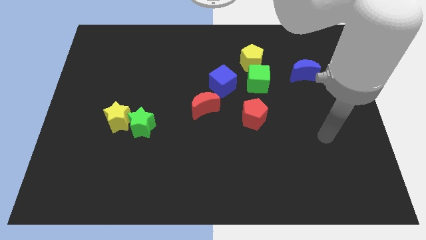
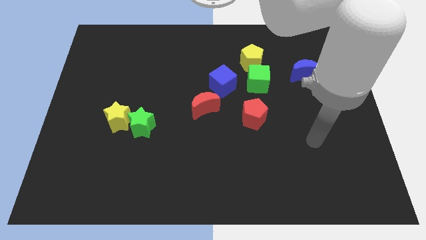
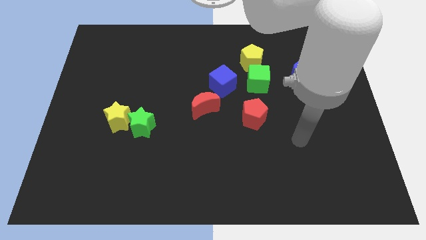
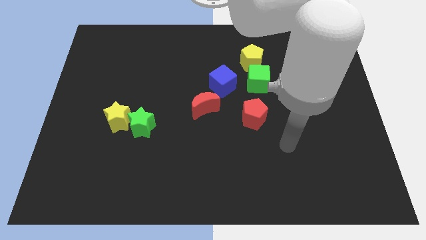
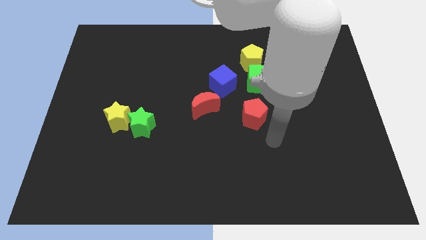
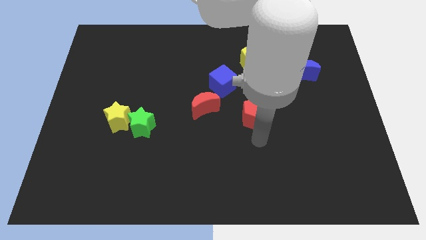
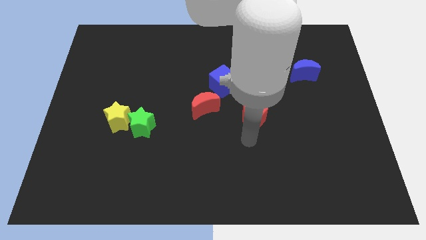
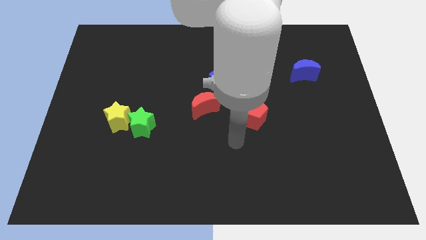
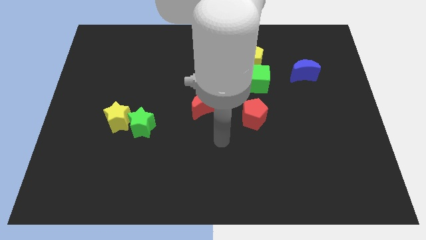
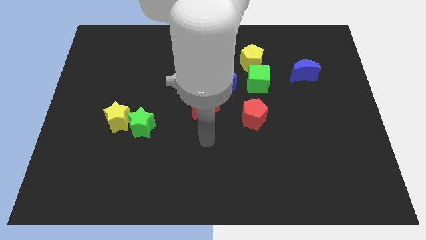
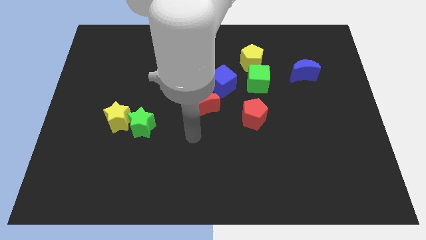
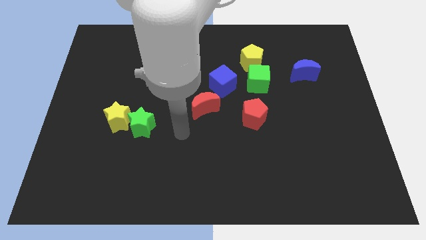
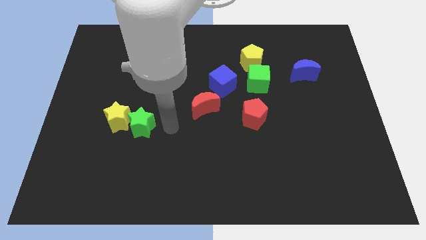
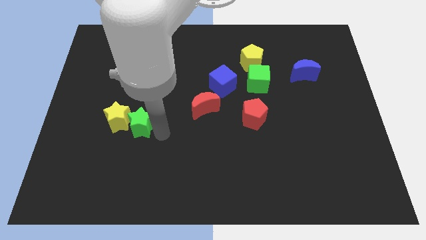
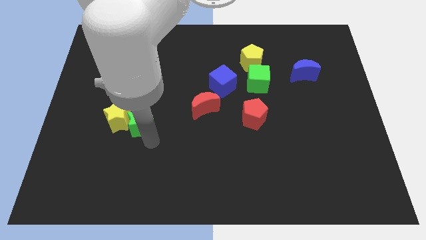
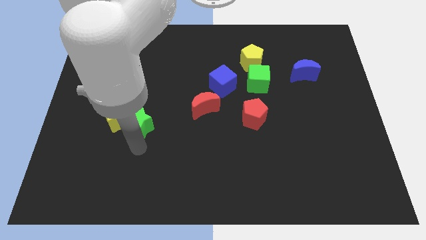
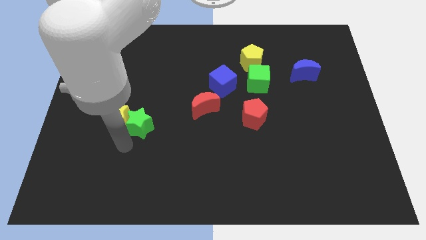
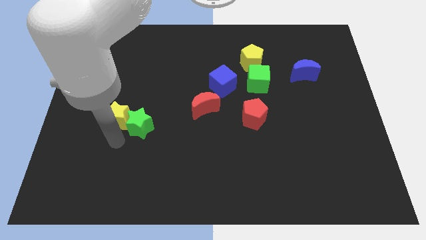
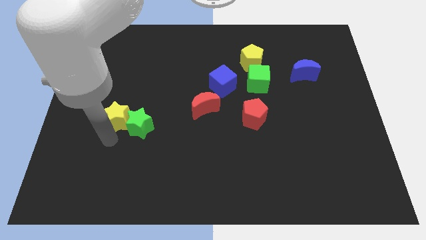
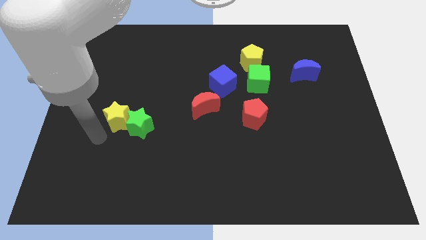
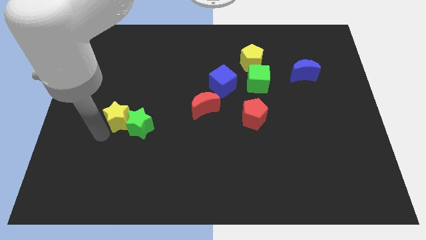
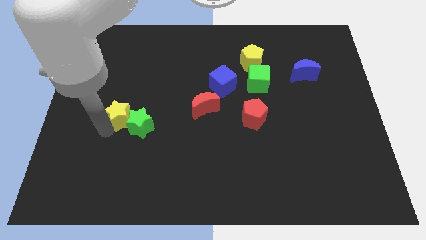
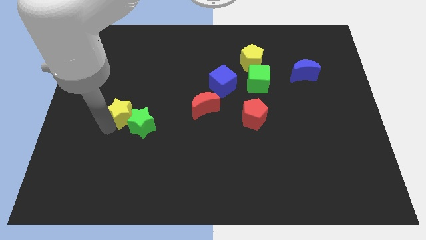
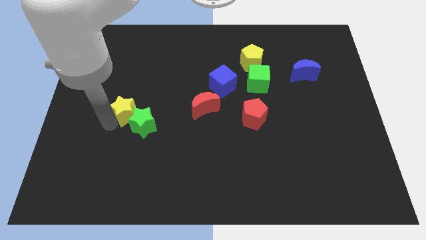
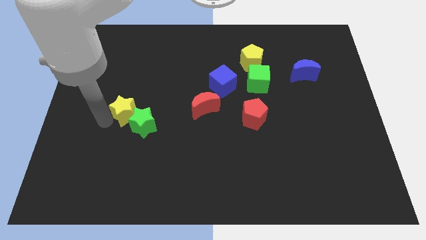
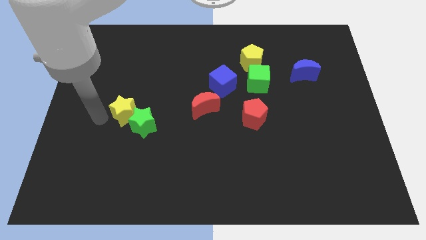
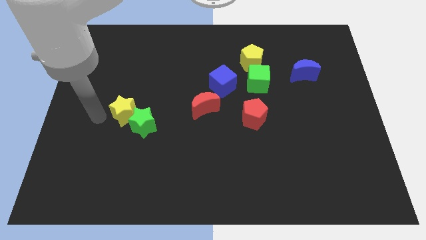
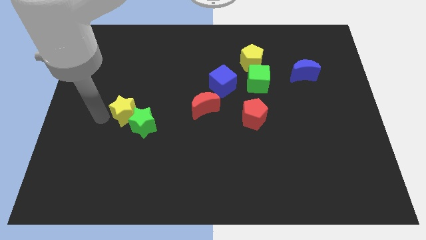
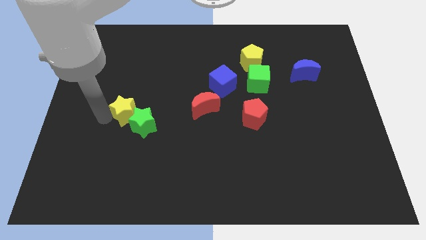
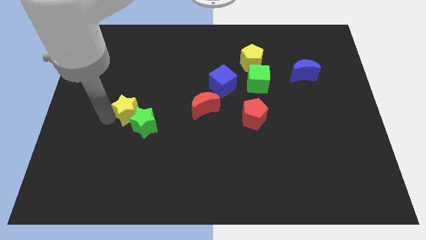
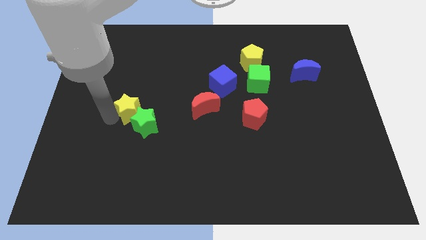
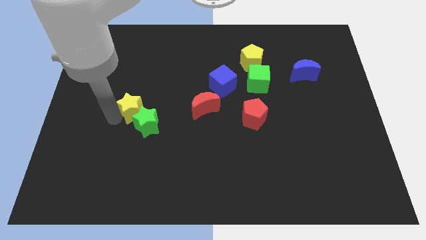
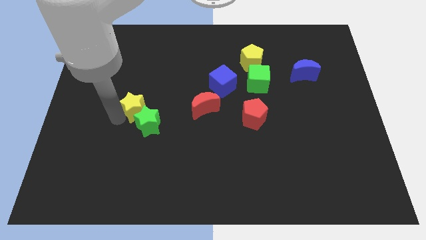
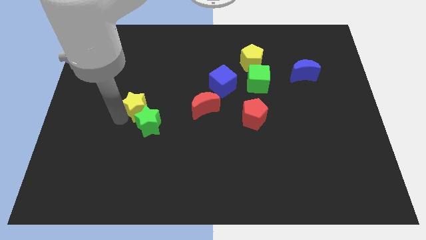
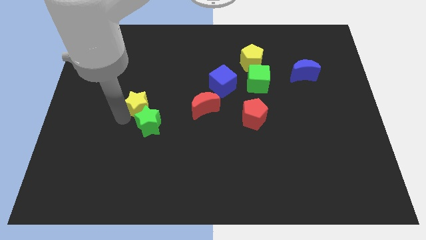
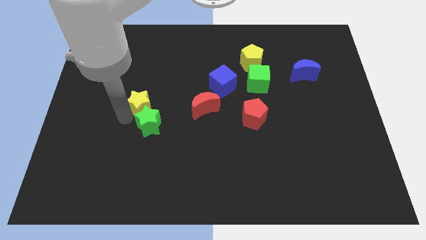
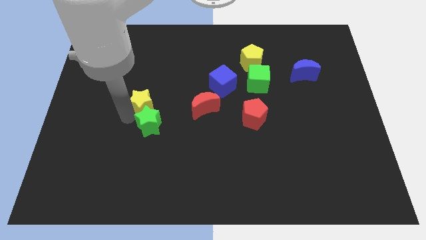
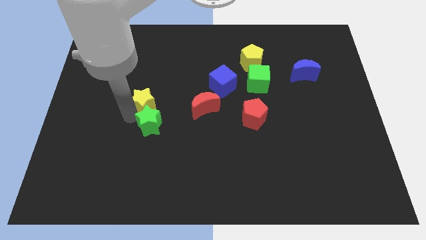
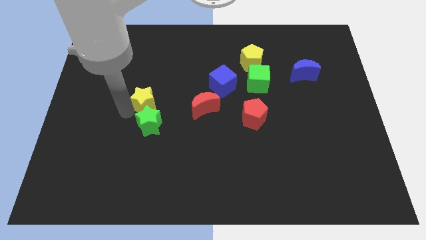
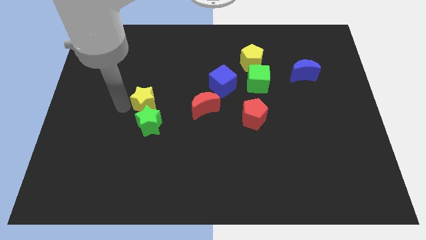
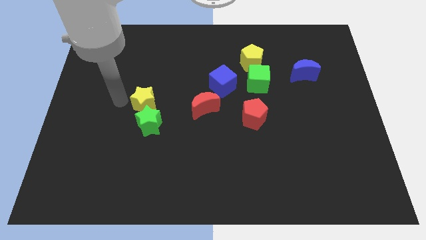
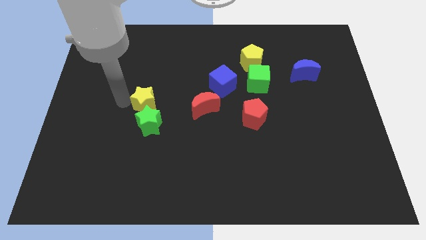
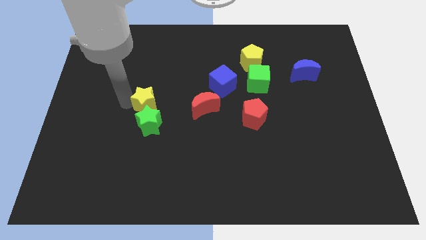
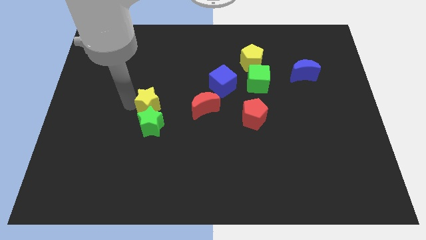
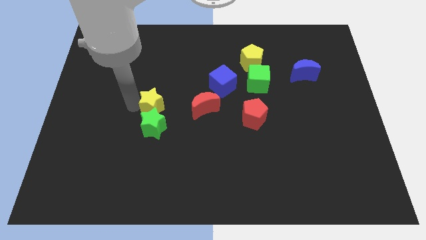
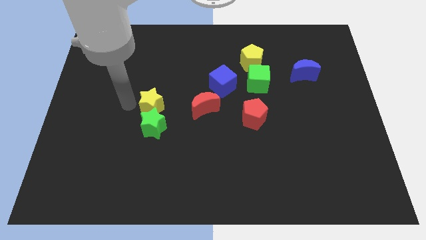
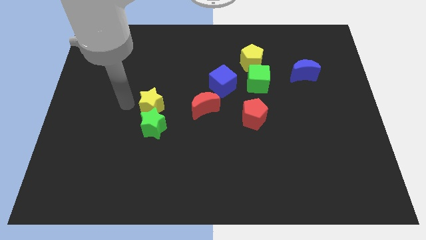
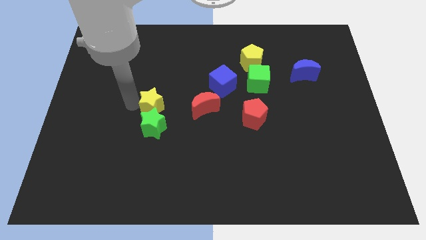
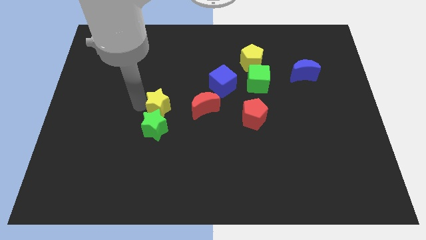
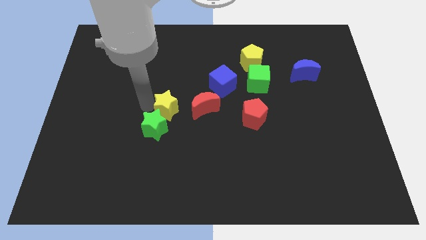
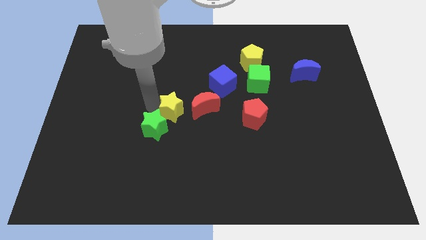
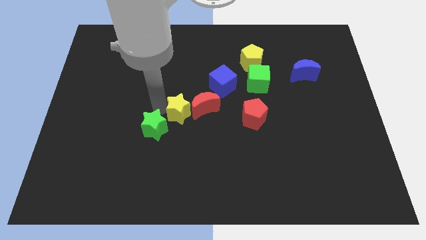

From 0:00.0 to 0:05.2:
push the yellow star close to the red moon

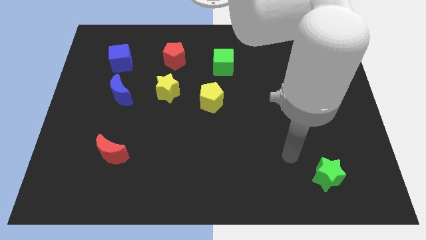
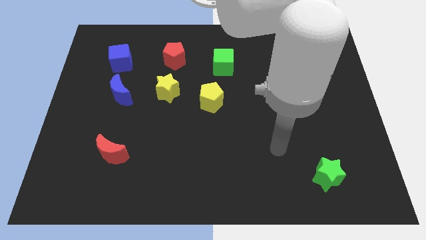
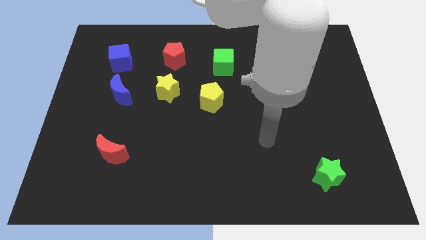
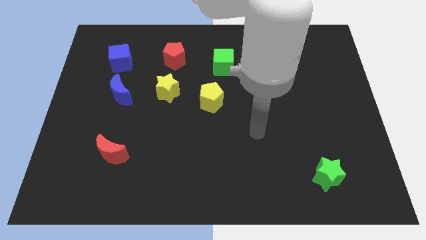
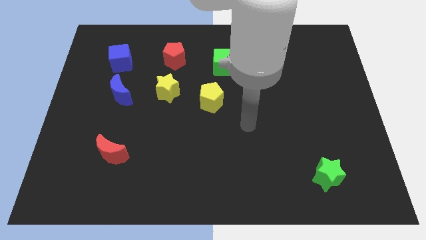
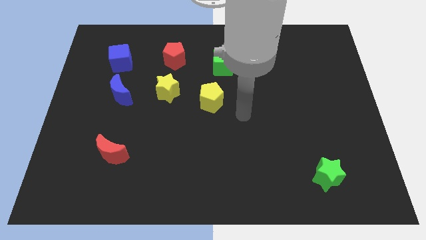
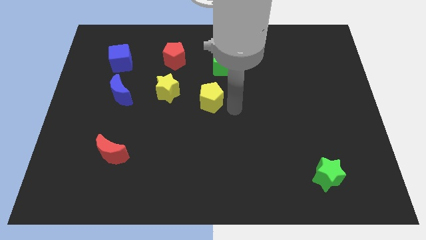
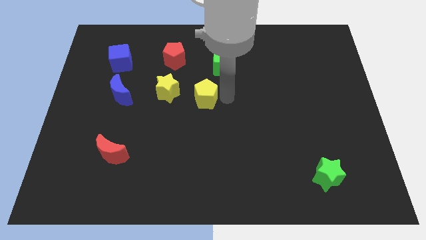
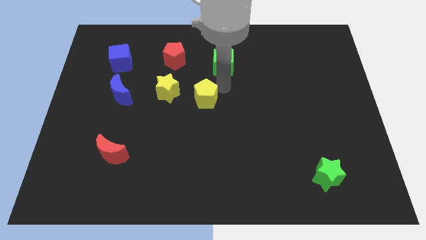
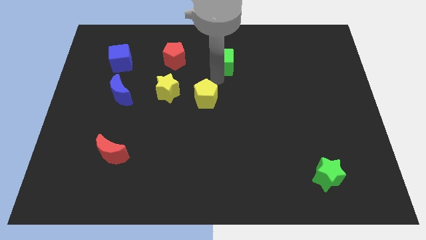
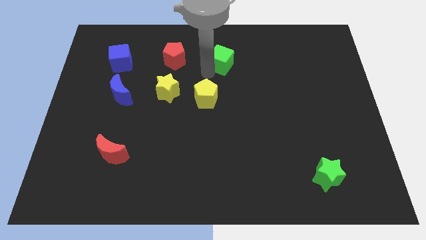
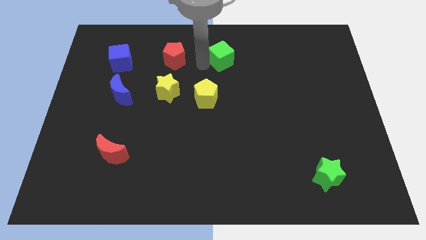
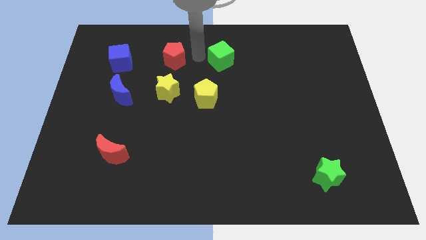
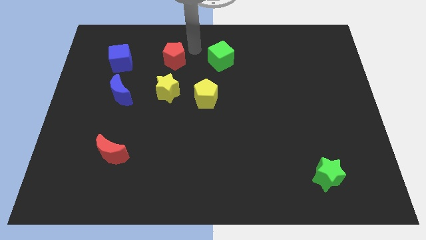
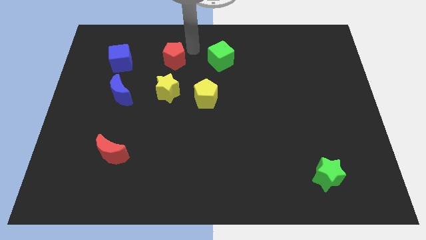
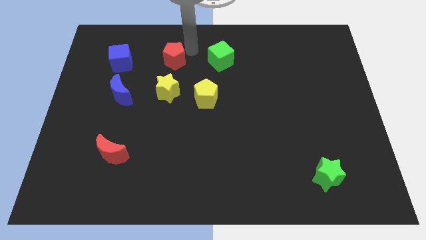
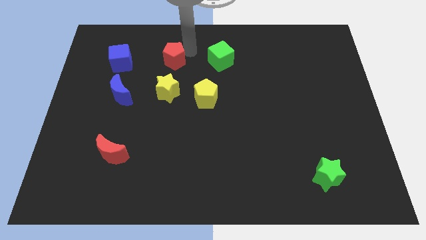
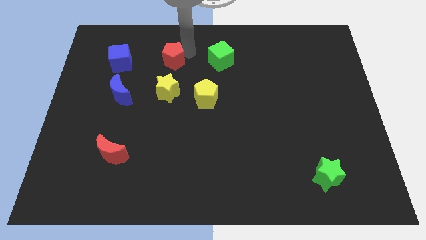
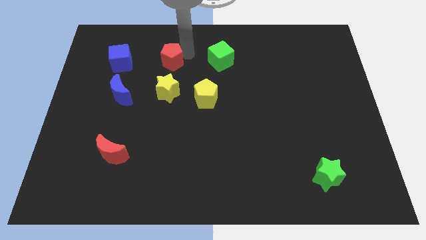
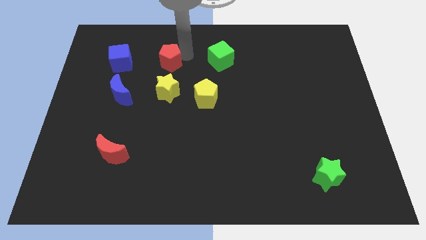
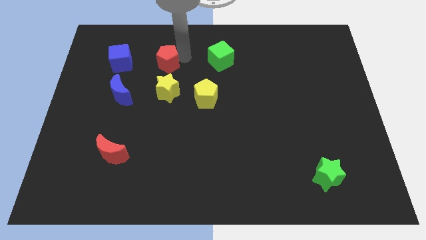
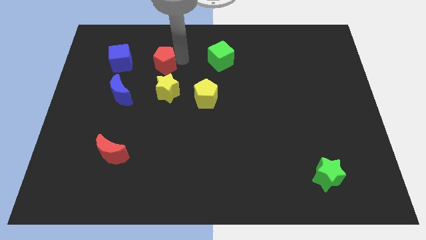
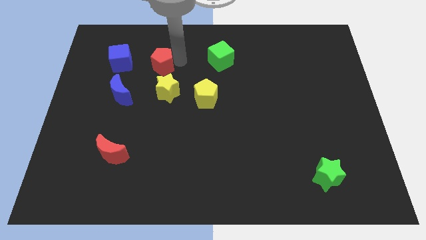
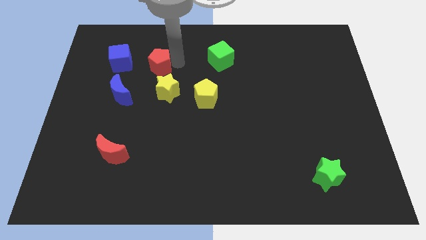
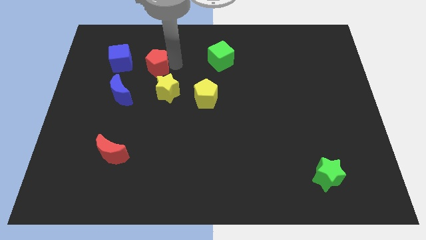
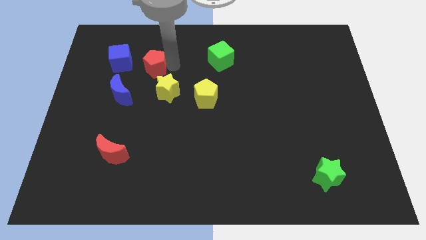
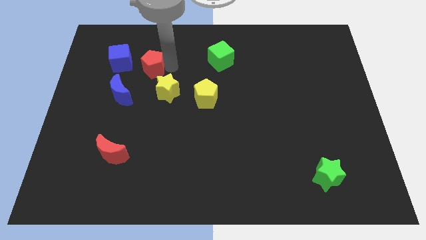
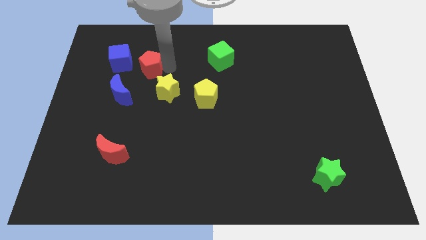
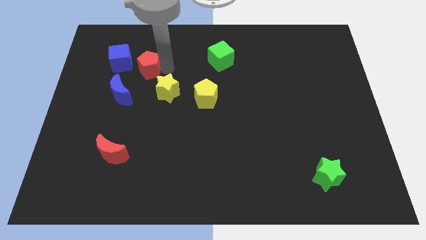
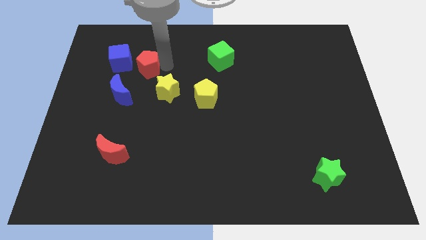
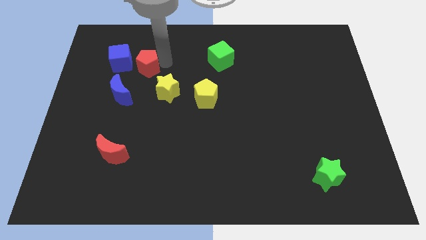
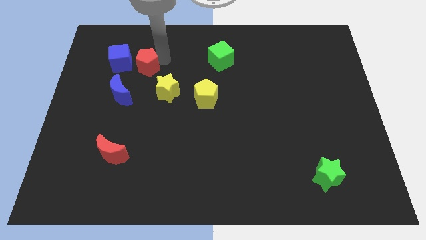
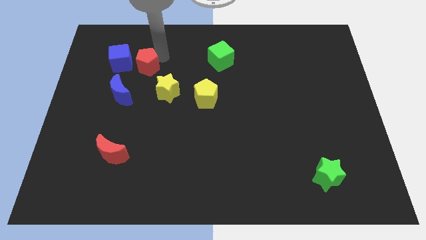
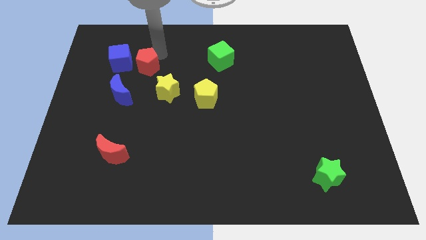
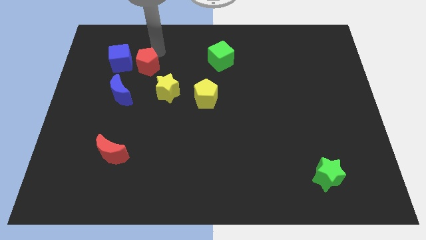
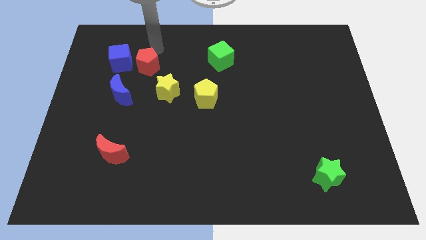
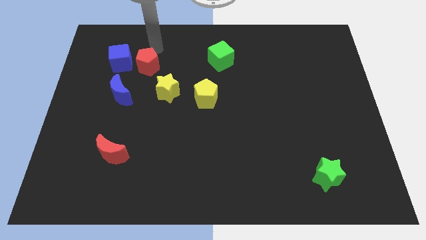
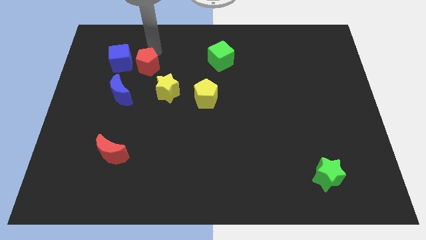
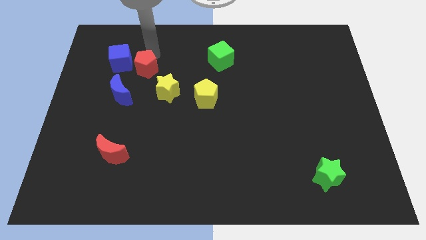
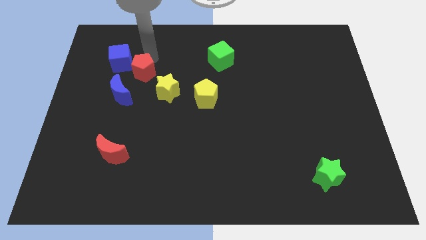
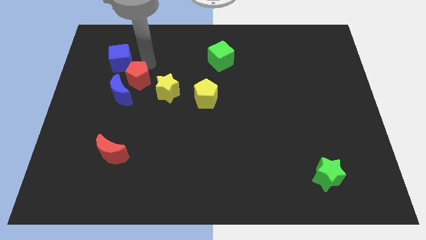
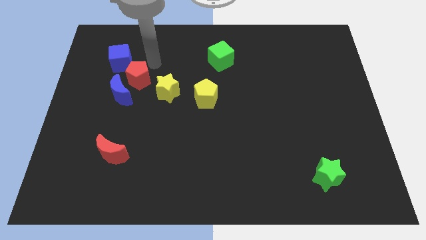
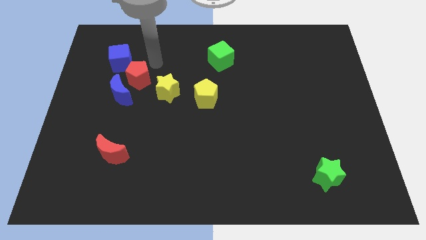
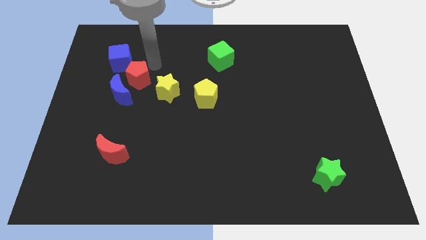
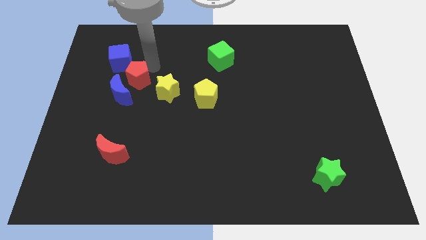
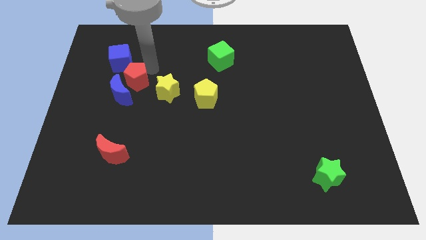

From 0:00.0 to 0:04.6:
slide the red pentagon towards the blue moon
